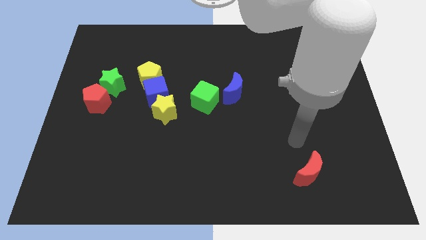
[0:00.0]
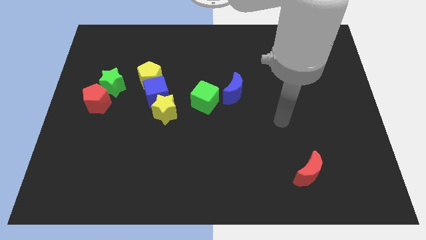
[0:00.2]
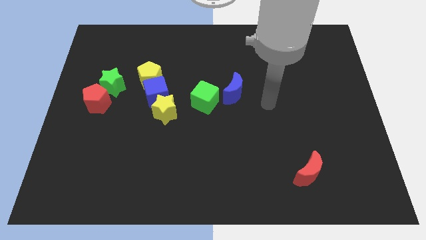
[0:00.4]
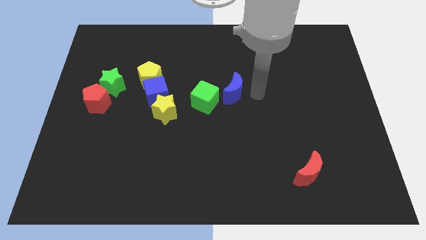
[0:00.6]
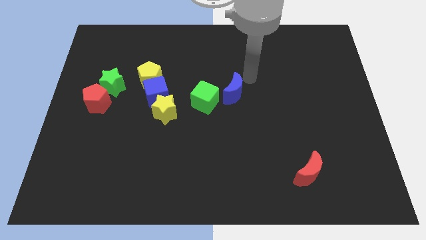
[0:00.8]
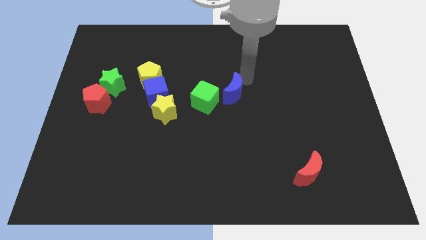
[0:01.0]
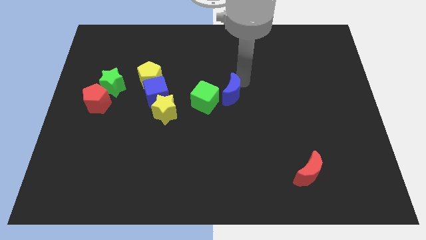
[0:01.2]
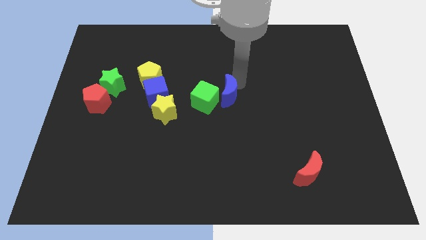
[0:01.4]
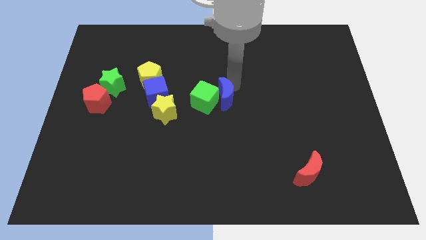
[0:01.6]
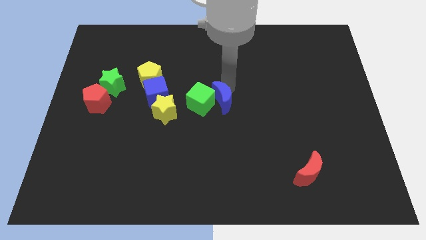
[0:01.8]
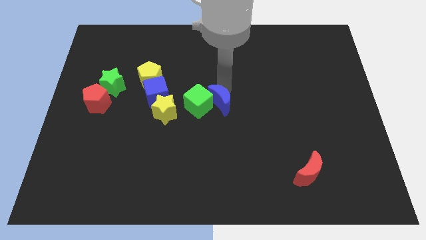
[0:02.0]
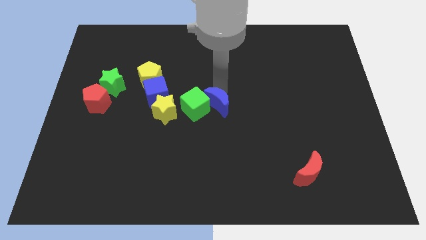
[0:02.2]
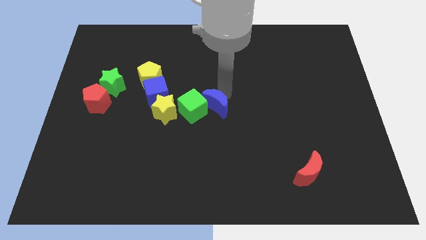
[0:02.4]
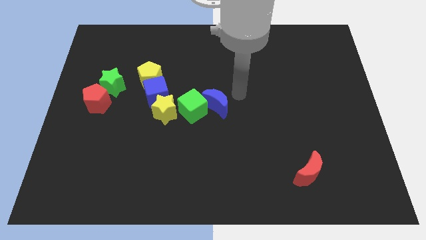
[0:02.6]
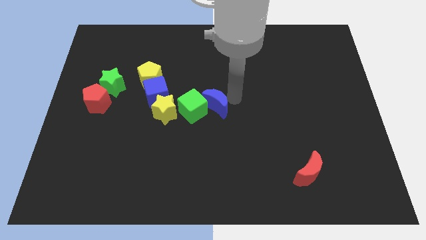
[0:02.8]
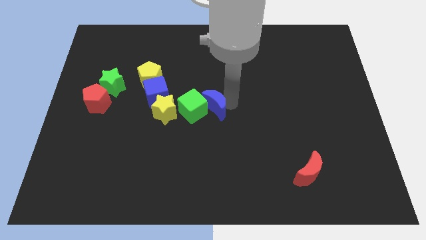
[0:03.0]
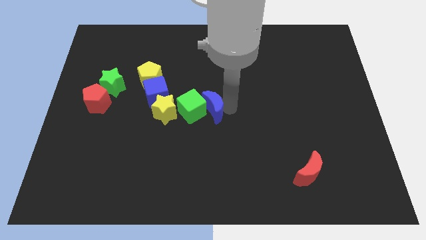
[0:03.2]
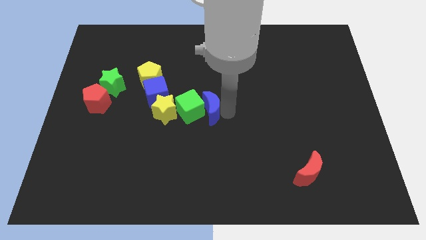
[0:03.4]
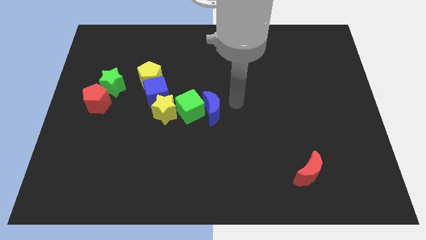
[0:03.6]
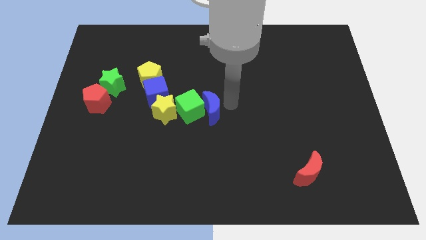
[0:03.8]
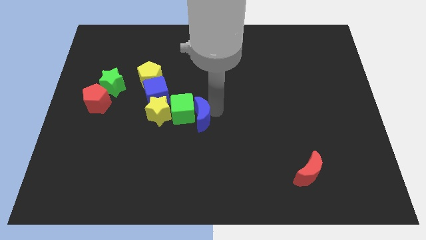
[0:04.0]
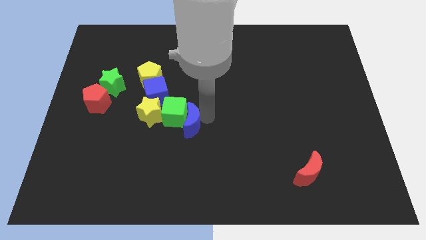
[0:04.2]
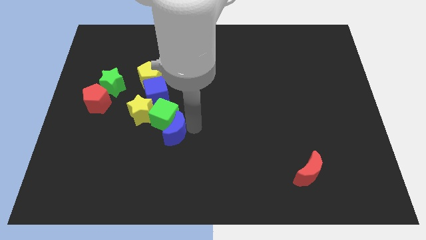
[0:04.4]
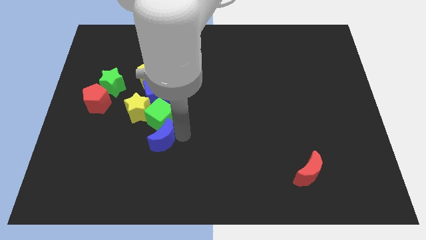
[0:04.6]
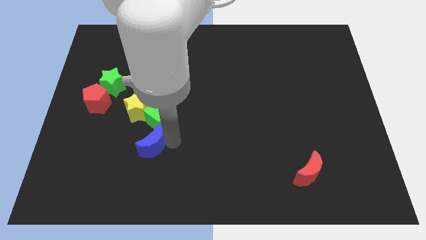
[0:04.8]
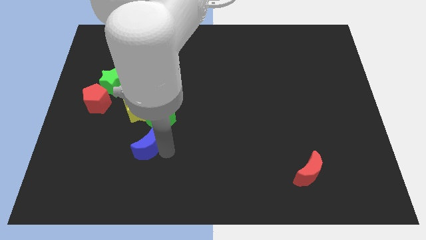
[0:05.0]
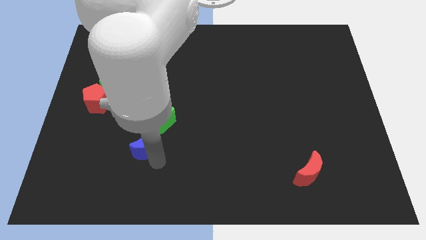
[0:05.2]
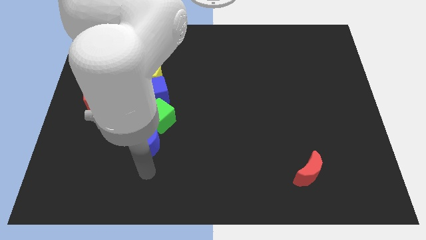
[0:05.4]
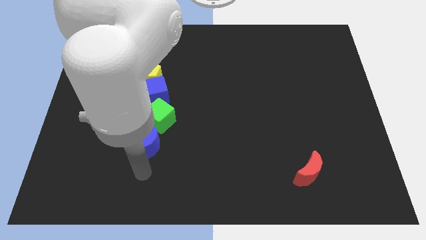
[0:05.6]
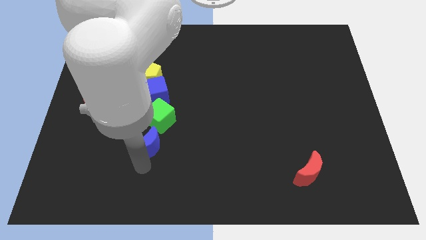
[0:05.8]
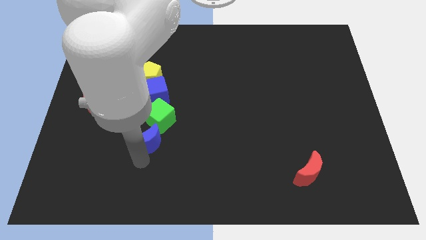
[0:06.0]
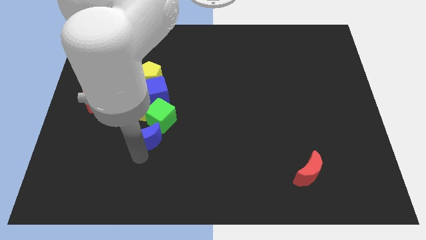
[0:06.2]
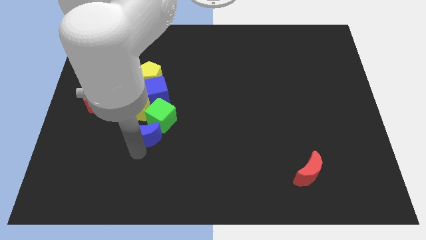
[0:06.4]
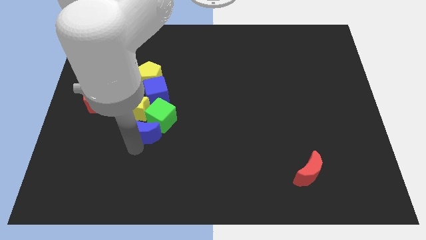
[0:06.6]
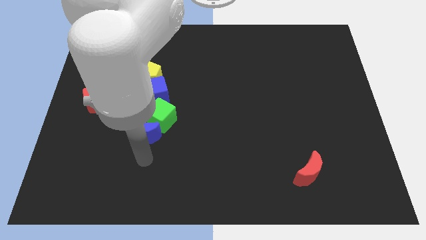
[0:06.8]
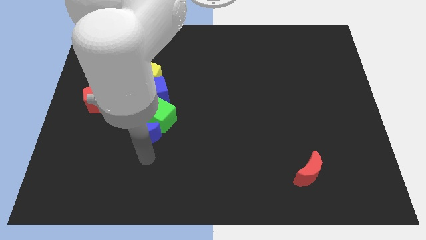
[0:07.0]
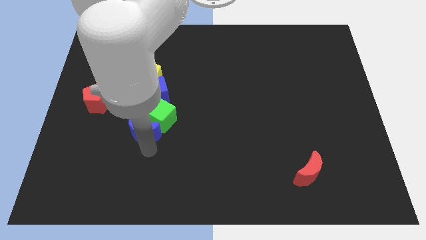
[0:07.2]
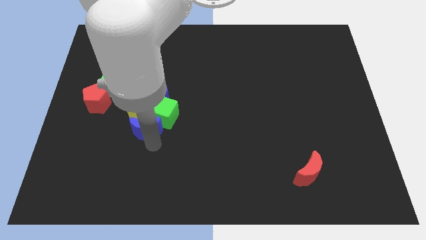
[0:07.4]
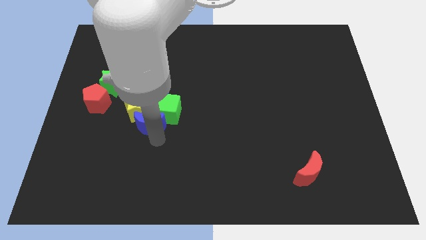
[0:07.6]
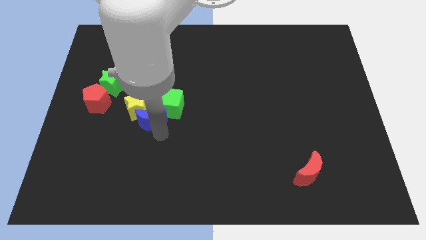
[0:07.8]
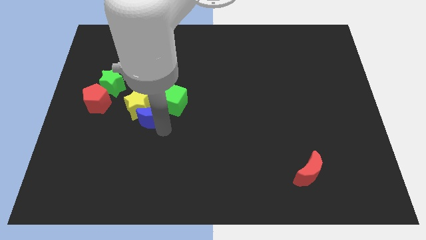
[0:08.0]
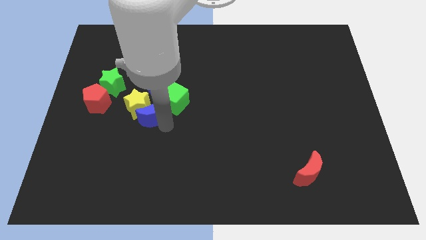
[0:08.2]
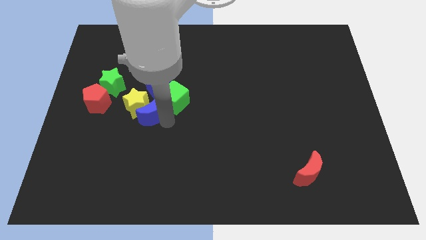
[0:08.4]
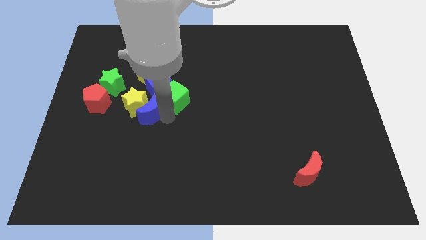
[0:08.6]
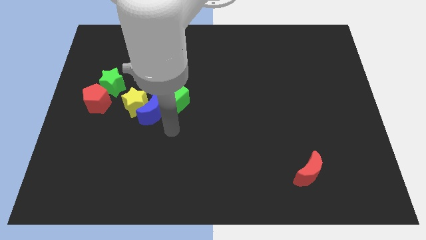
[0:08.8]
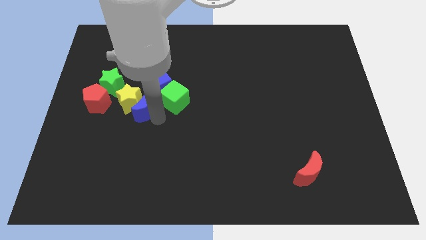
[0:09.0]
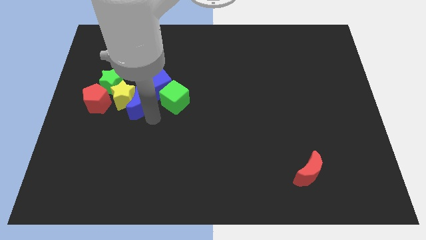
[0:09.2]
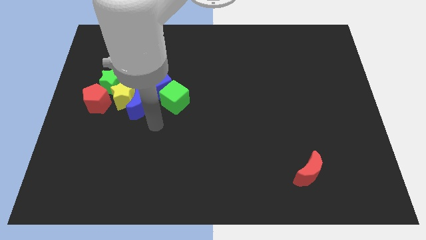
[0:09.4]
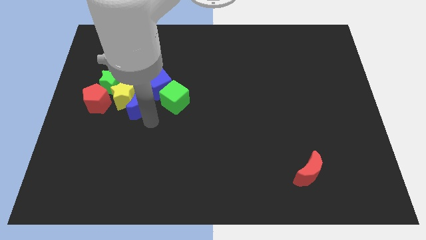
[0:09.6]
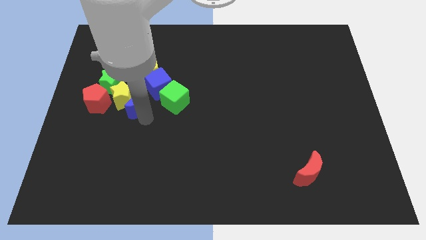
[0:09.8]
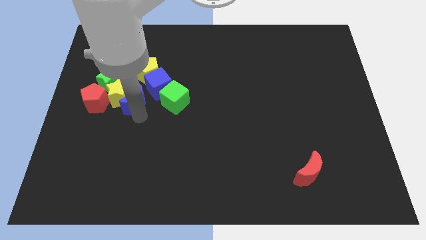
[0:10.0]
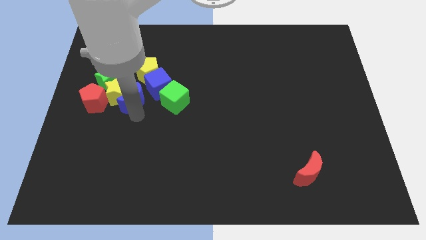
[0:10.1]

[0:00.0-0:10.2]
slide the blue moon to the bottom left side of the yellow pentagon

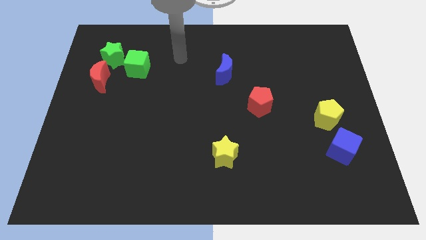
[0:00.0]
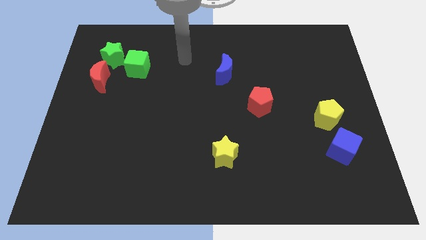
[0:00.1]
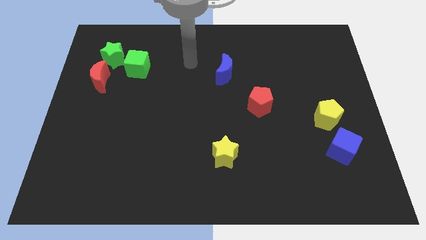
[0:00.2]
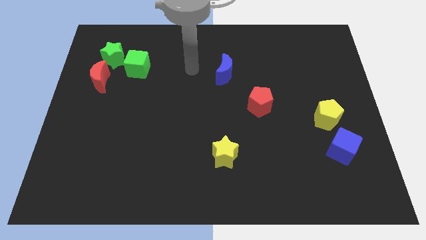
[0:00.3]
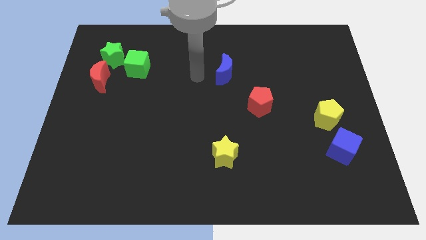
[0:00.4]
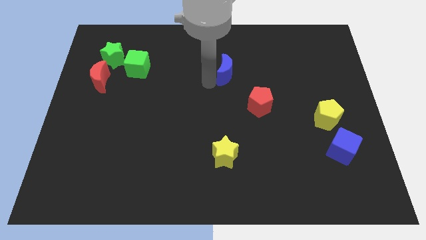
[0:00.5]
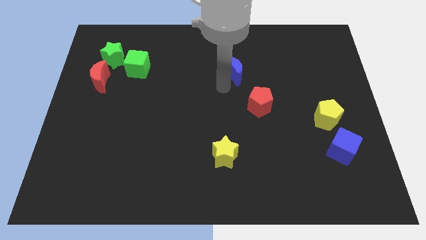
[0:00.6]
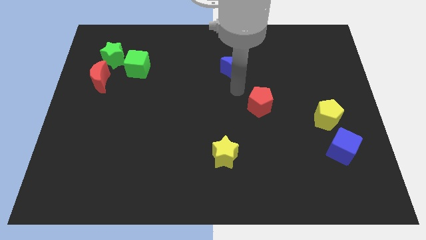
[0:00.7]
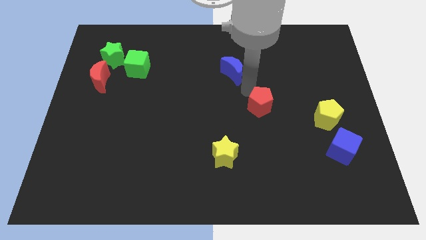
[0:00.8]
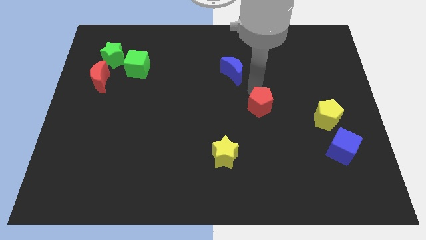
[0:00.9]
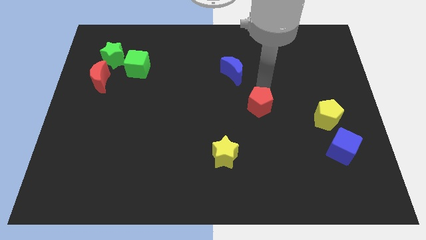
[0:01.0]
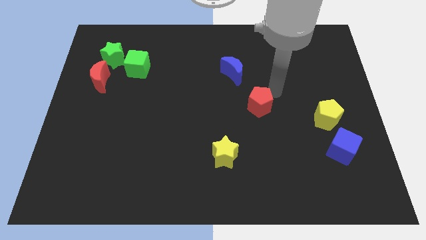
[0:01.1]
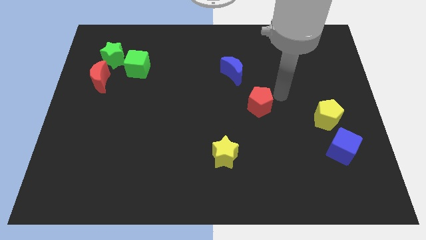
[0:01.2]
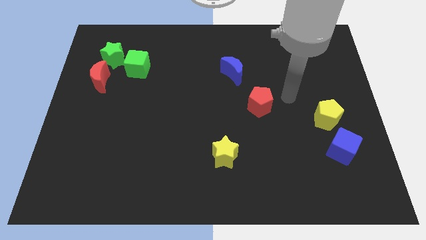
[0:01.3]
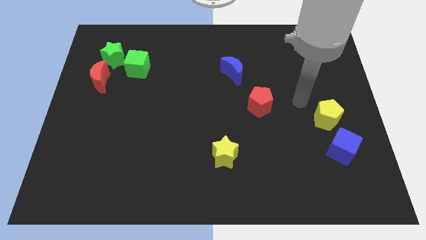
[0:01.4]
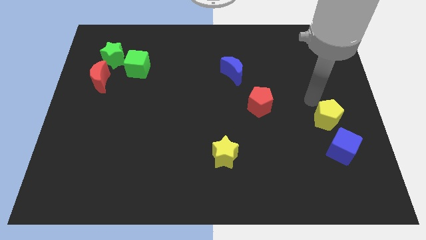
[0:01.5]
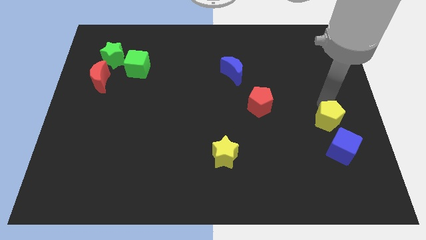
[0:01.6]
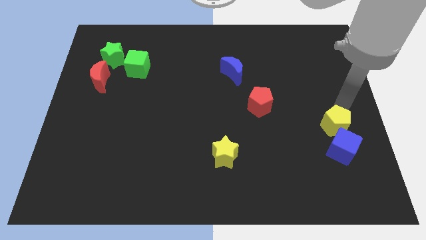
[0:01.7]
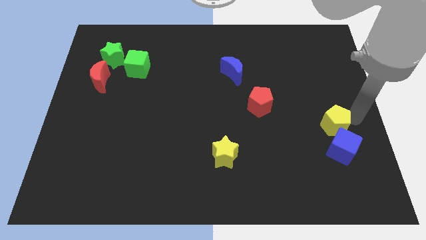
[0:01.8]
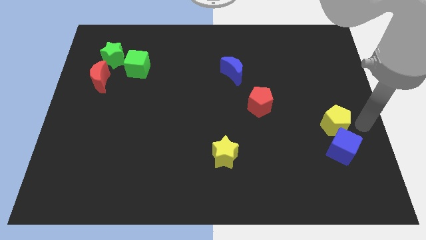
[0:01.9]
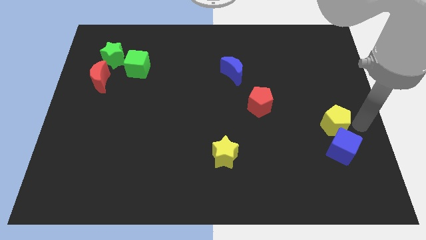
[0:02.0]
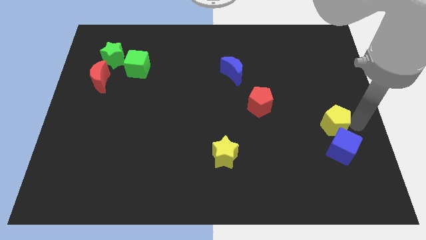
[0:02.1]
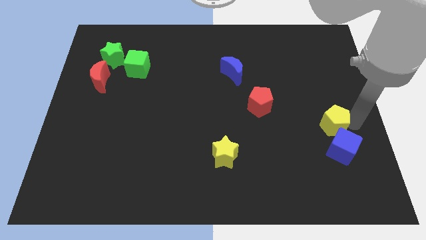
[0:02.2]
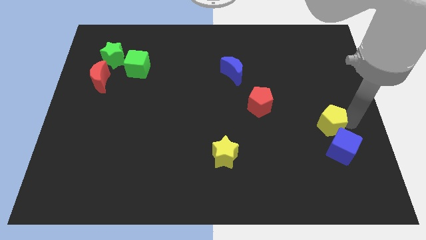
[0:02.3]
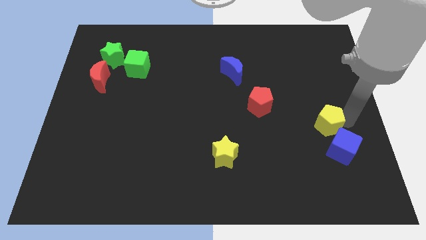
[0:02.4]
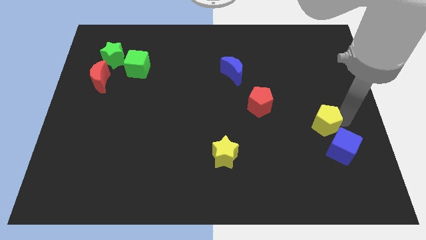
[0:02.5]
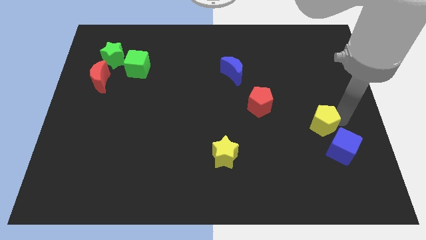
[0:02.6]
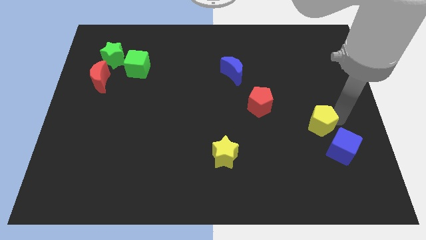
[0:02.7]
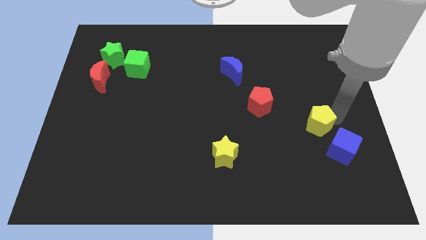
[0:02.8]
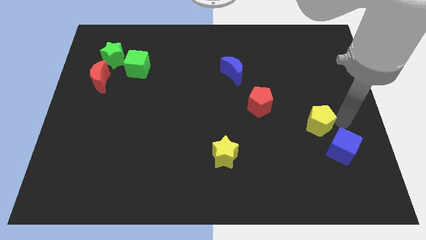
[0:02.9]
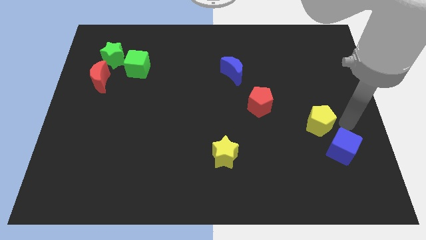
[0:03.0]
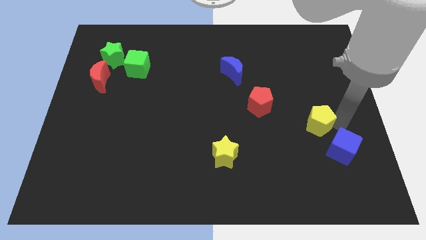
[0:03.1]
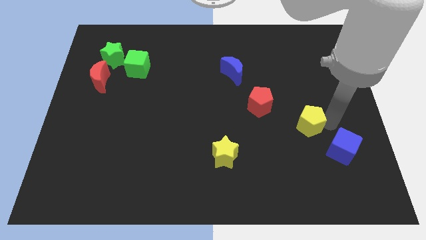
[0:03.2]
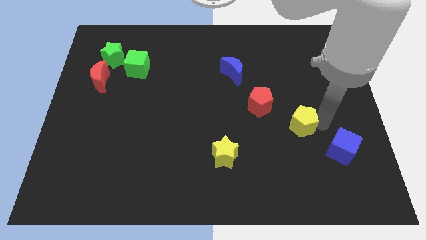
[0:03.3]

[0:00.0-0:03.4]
push the yellow pentagon diagonally down and to the right of the red pentagon
